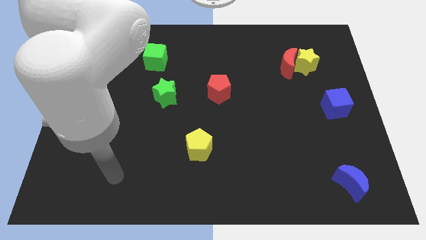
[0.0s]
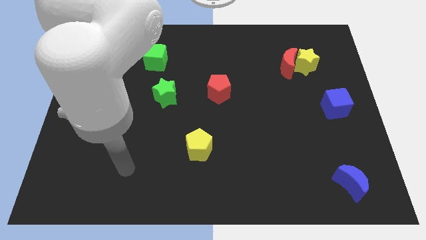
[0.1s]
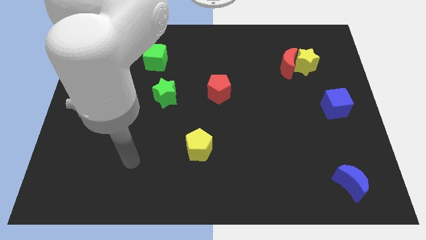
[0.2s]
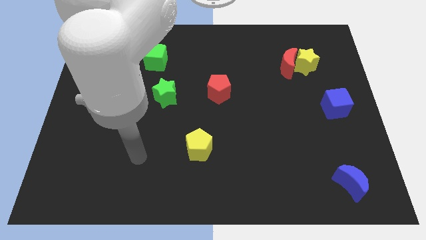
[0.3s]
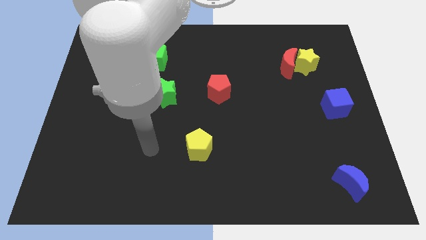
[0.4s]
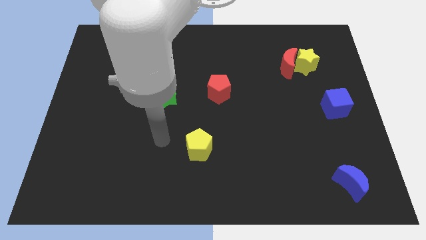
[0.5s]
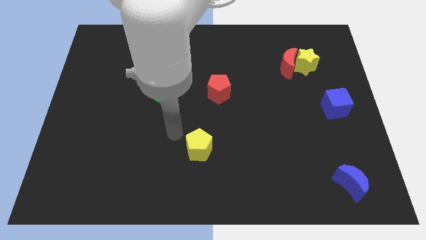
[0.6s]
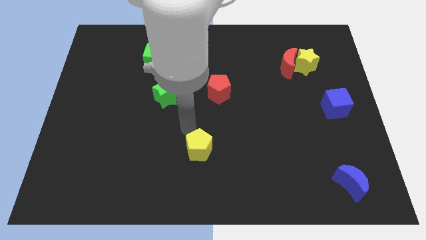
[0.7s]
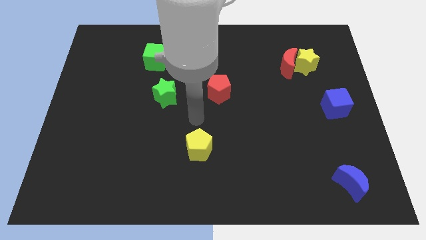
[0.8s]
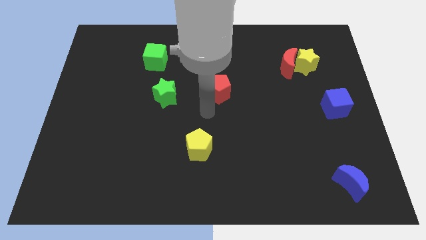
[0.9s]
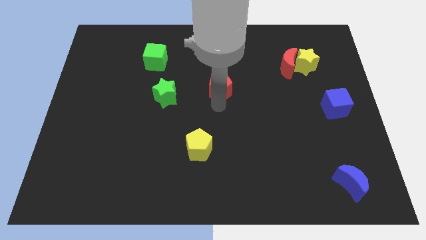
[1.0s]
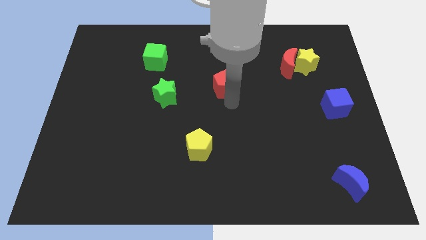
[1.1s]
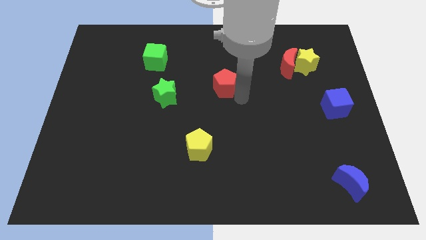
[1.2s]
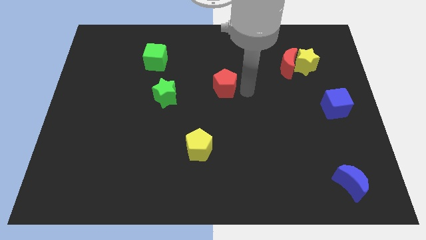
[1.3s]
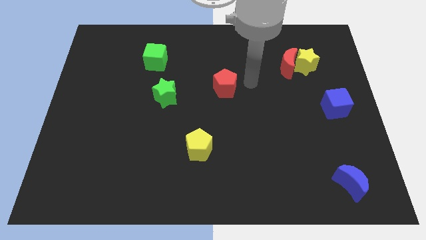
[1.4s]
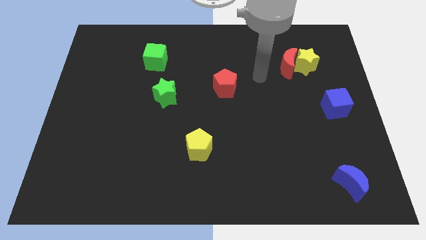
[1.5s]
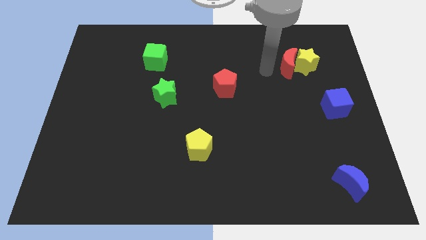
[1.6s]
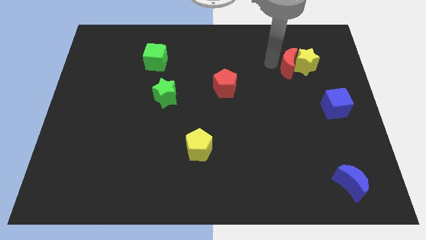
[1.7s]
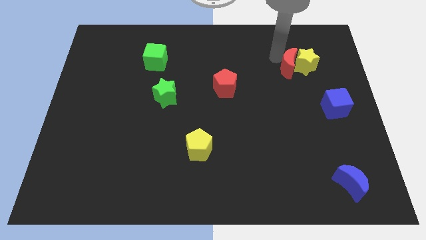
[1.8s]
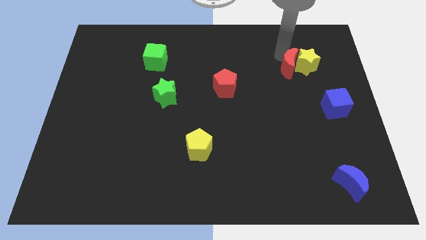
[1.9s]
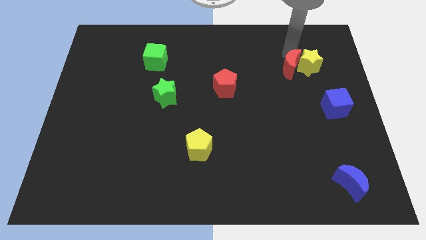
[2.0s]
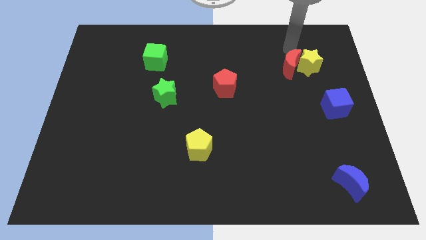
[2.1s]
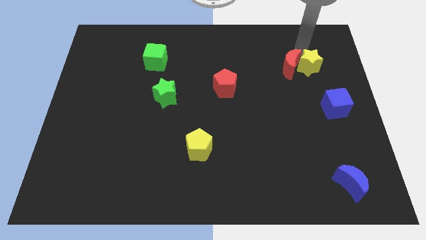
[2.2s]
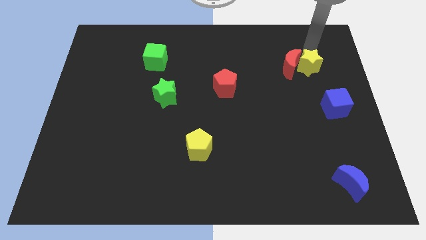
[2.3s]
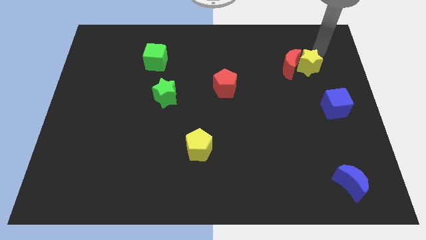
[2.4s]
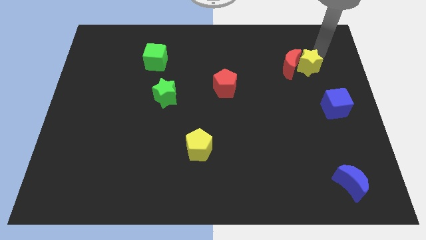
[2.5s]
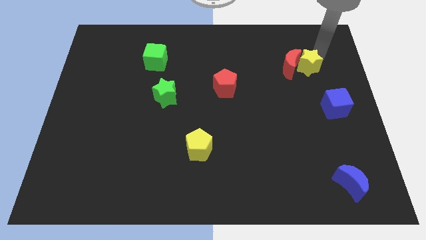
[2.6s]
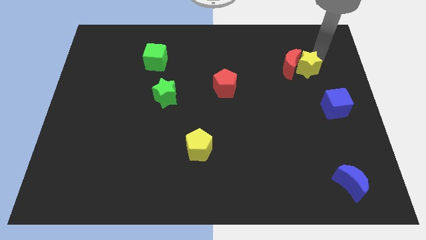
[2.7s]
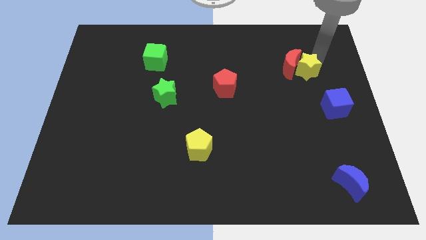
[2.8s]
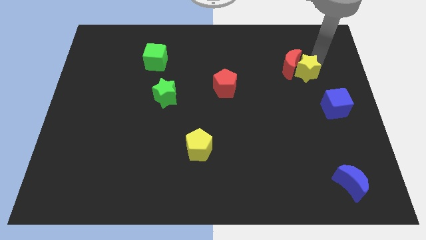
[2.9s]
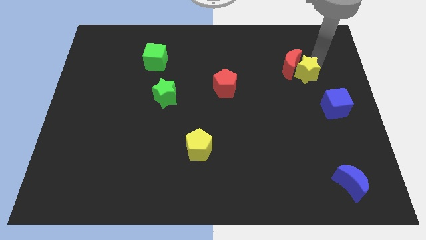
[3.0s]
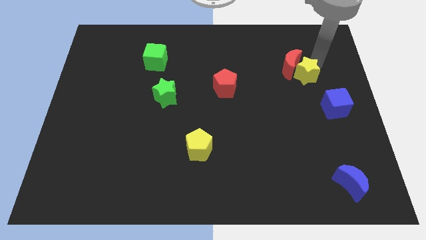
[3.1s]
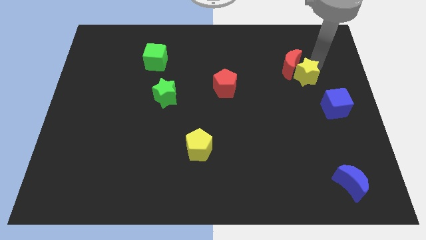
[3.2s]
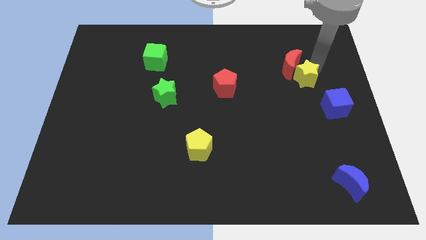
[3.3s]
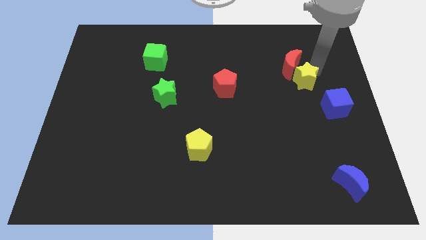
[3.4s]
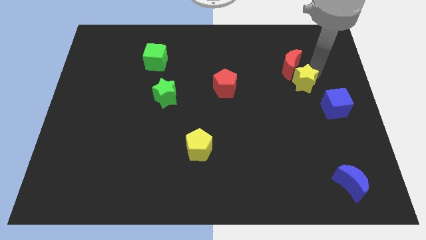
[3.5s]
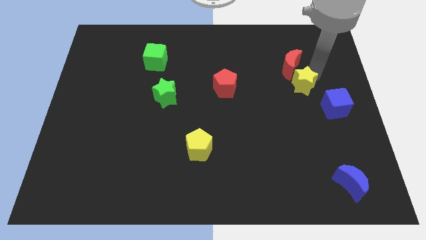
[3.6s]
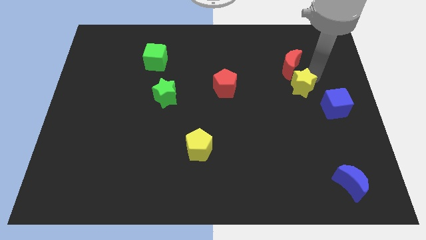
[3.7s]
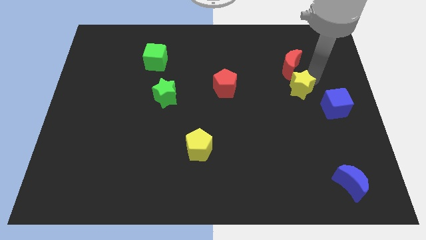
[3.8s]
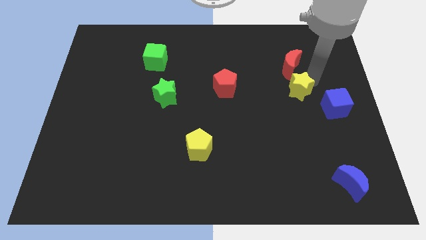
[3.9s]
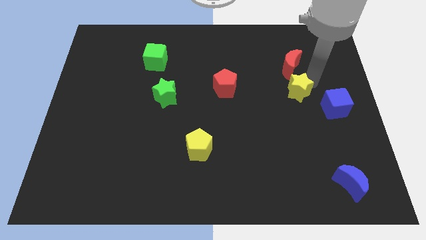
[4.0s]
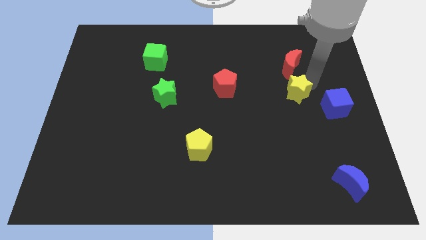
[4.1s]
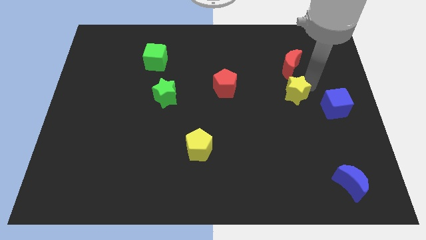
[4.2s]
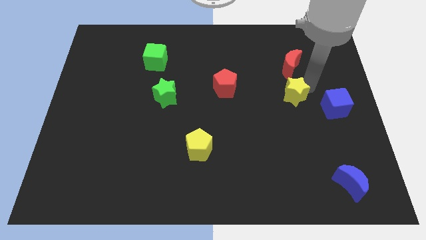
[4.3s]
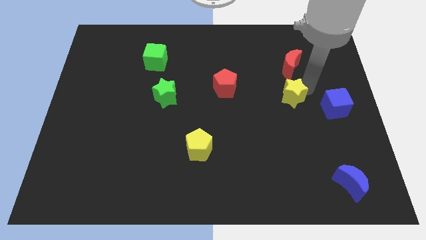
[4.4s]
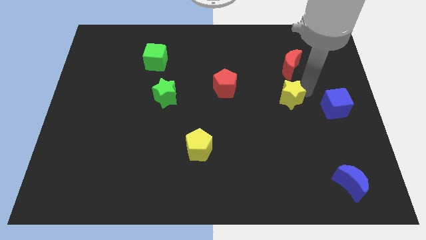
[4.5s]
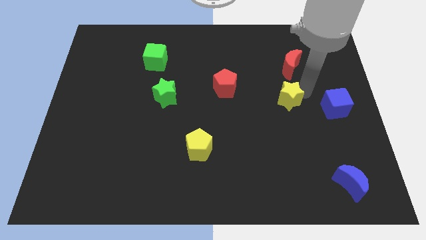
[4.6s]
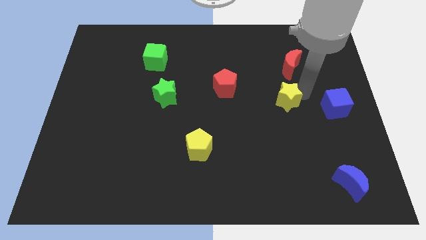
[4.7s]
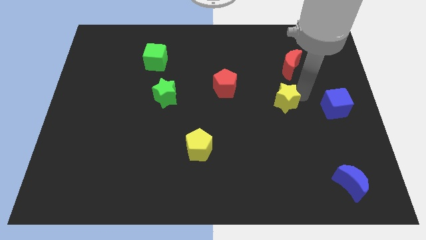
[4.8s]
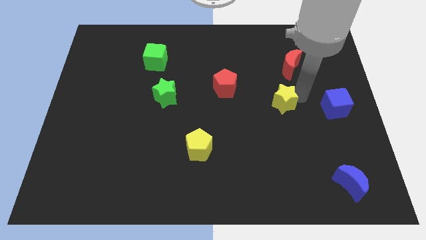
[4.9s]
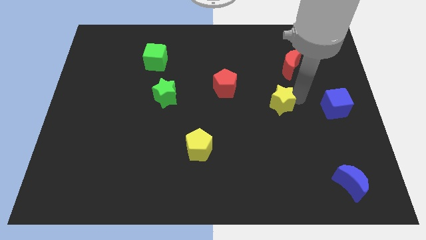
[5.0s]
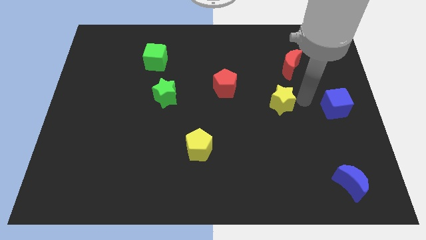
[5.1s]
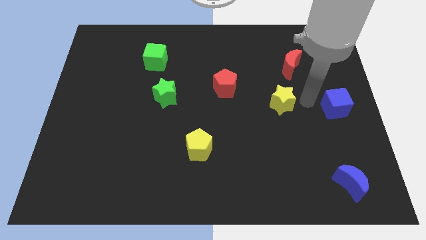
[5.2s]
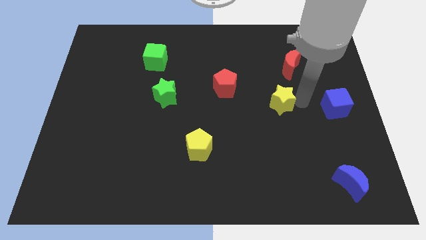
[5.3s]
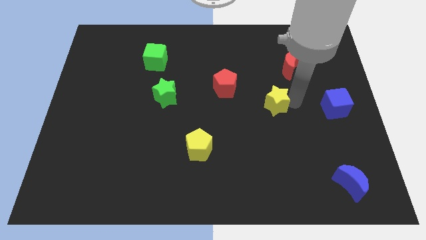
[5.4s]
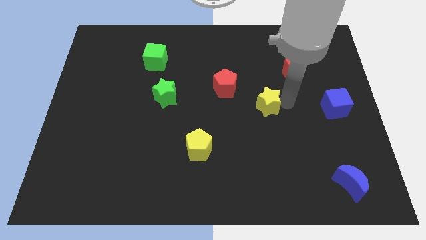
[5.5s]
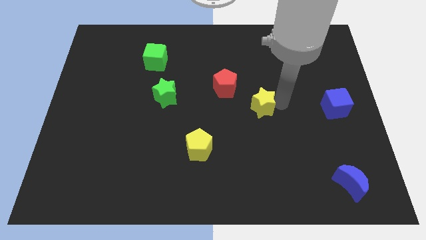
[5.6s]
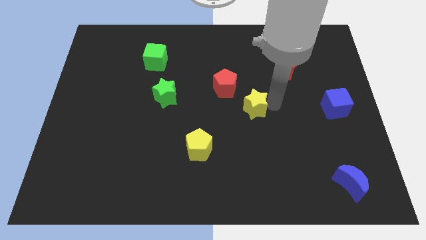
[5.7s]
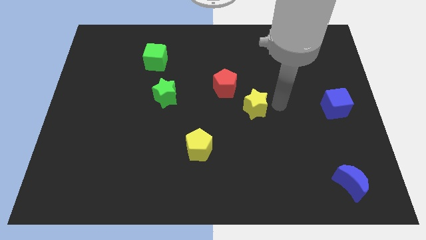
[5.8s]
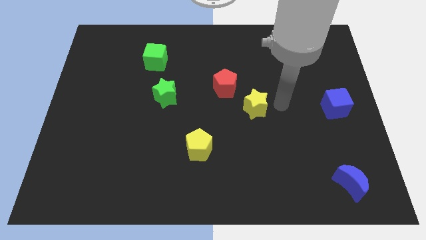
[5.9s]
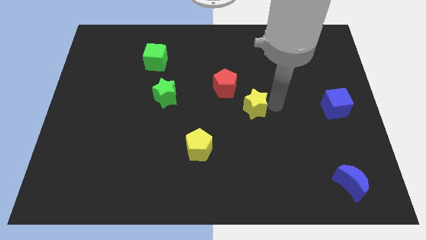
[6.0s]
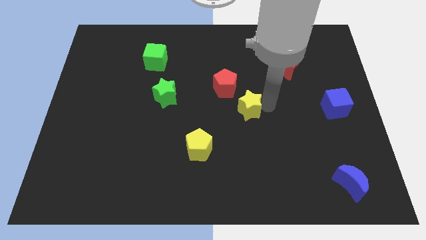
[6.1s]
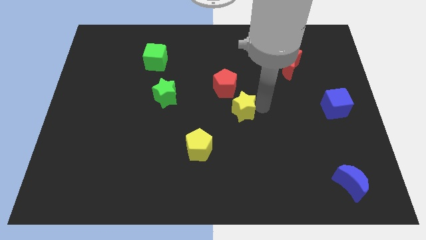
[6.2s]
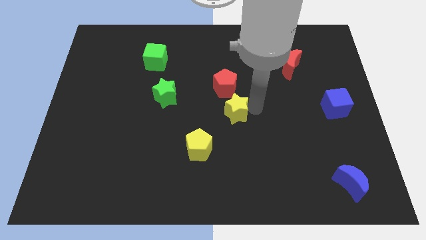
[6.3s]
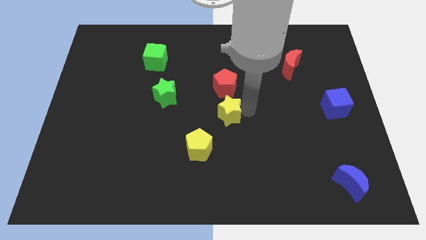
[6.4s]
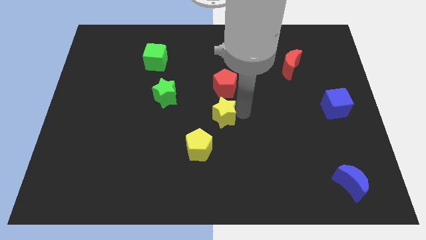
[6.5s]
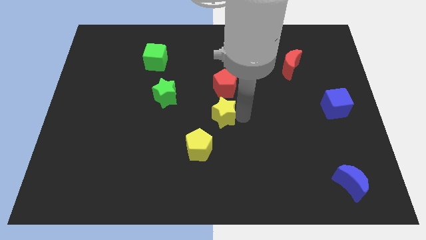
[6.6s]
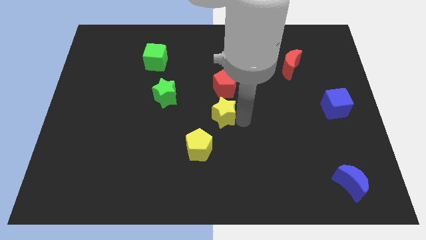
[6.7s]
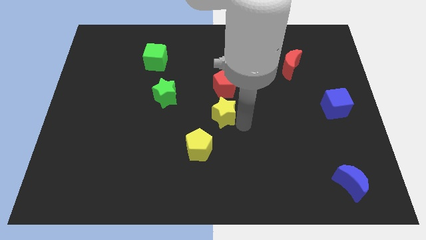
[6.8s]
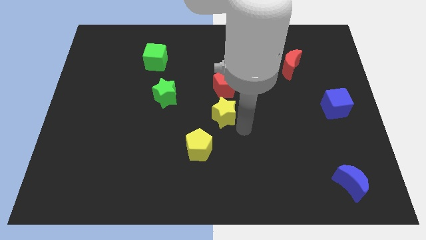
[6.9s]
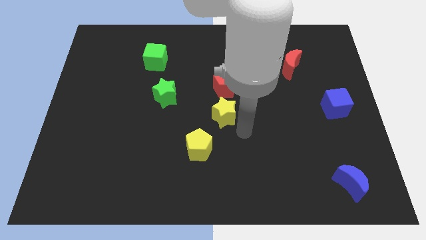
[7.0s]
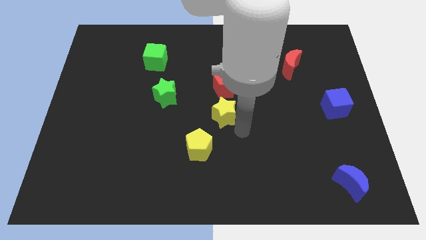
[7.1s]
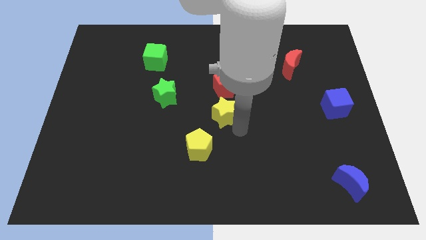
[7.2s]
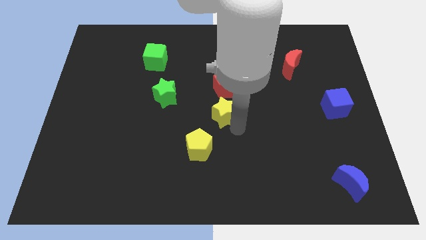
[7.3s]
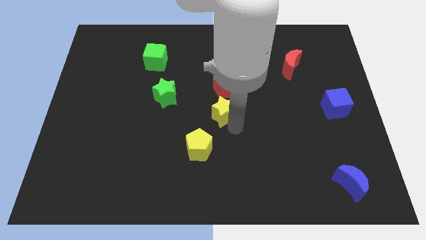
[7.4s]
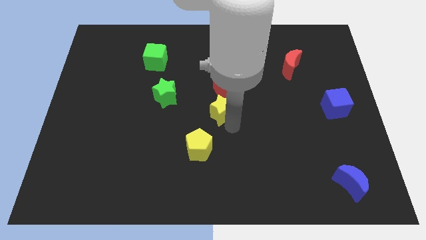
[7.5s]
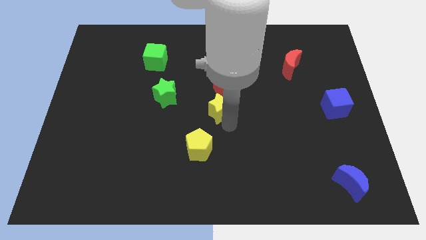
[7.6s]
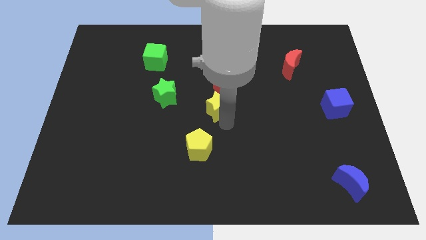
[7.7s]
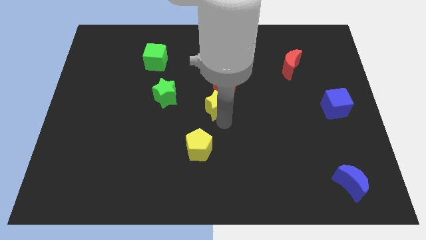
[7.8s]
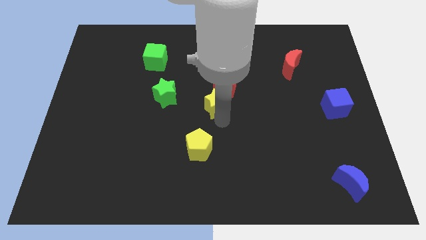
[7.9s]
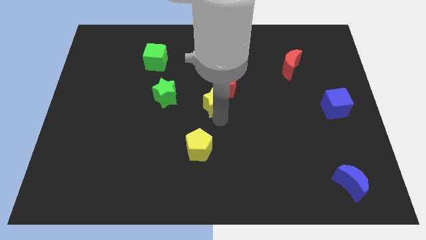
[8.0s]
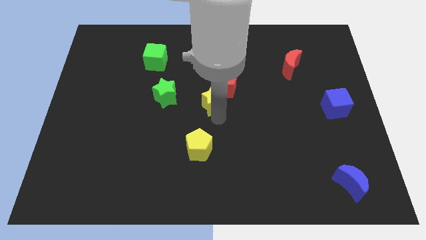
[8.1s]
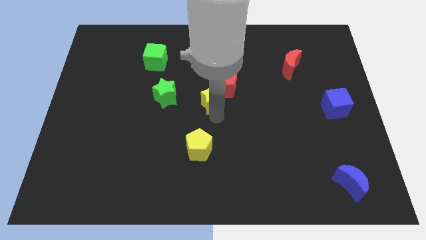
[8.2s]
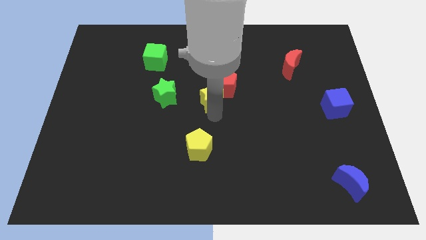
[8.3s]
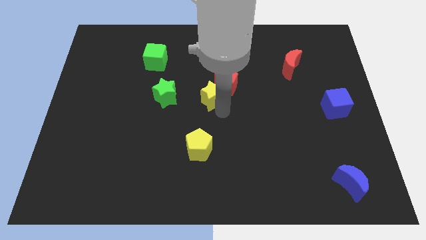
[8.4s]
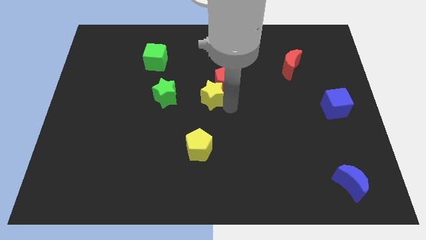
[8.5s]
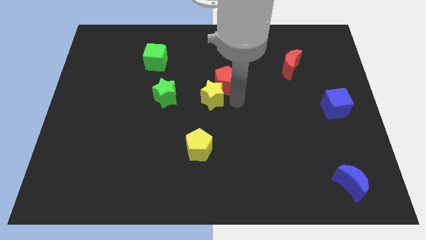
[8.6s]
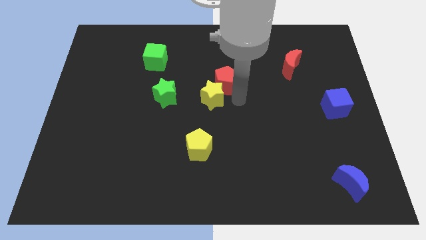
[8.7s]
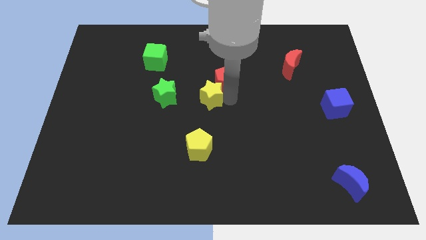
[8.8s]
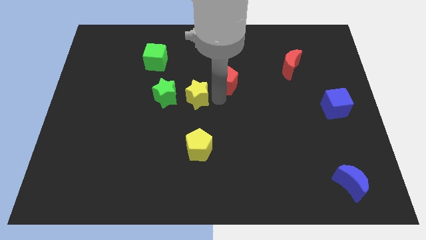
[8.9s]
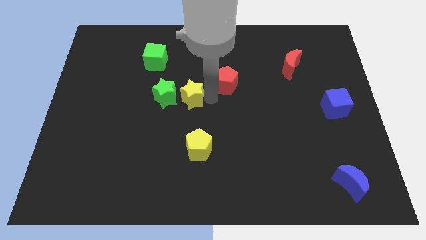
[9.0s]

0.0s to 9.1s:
put the yellow star to the green star
